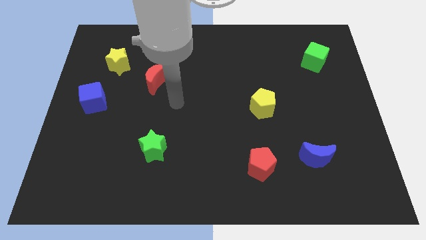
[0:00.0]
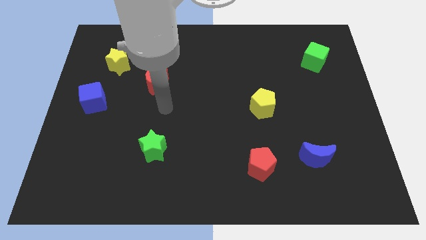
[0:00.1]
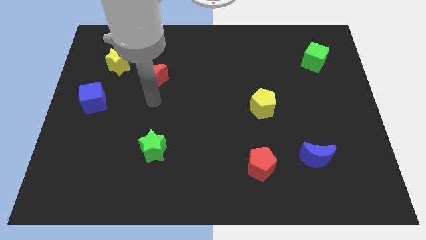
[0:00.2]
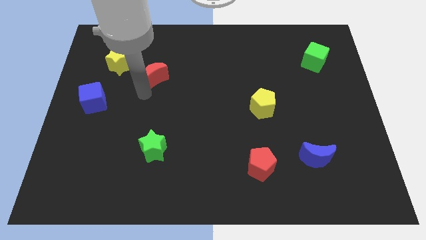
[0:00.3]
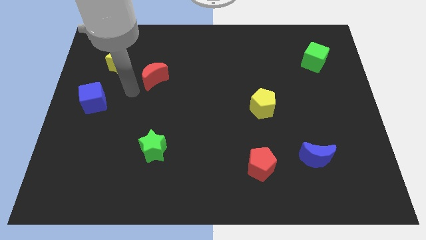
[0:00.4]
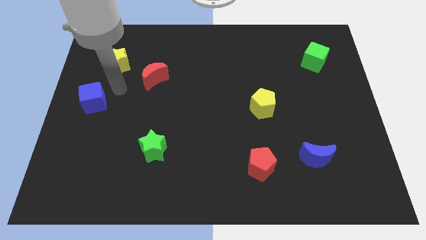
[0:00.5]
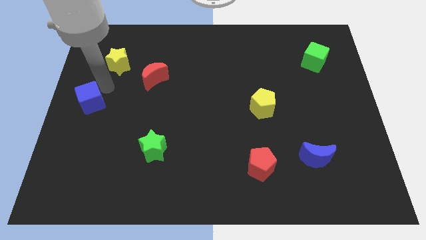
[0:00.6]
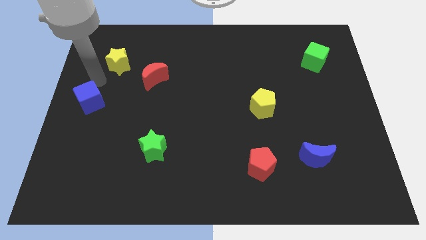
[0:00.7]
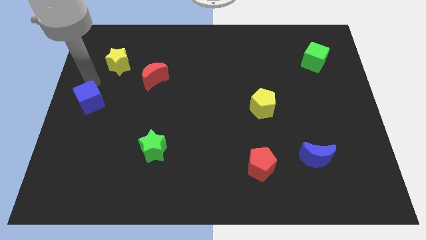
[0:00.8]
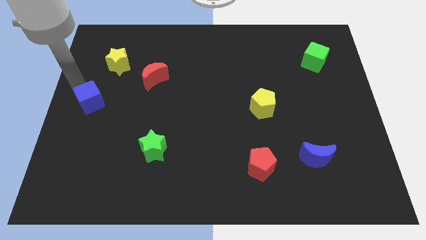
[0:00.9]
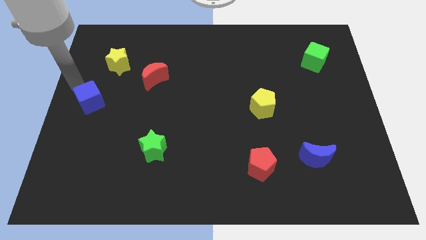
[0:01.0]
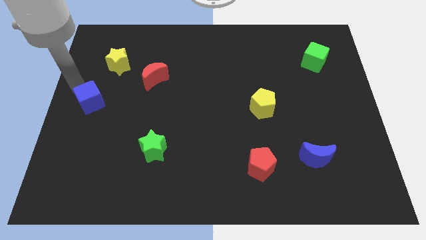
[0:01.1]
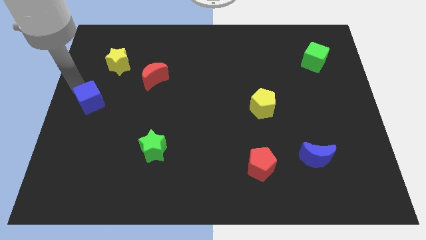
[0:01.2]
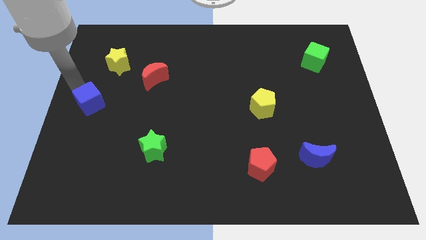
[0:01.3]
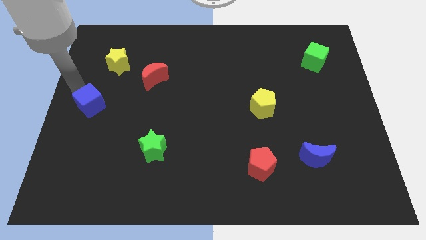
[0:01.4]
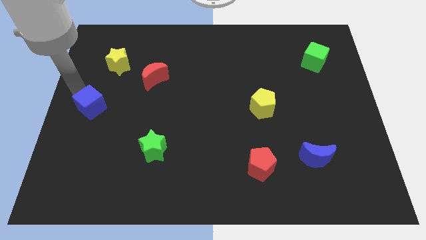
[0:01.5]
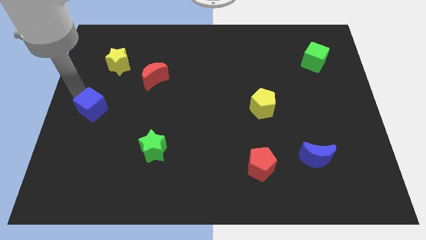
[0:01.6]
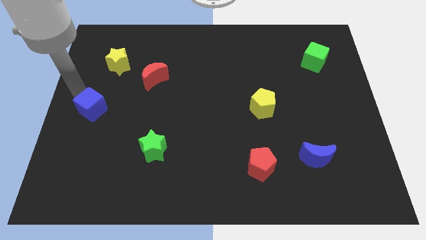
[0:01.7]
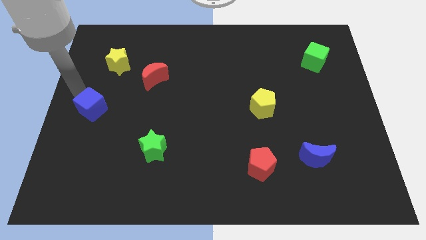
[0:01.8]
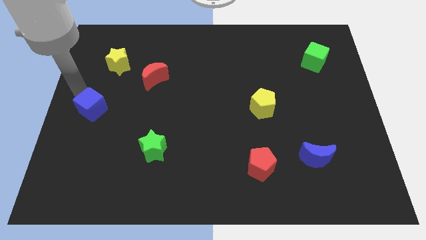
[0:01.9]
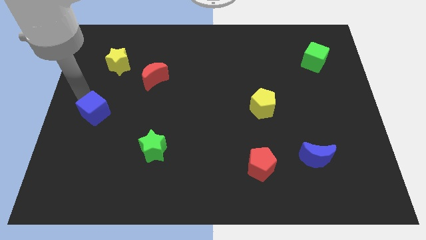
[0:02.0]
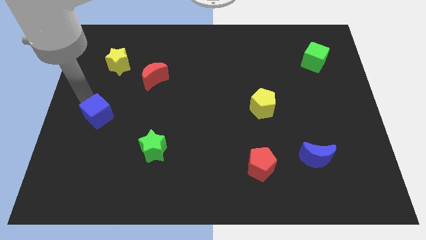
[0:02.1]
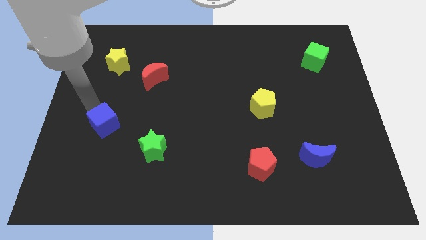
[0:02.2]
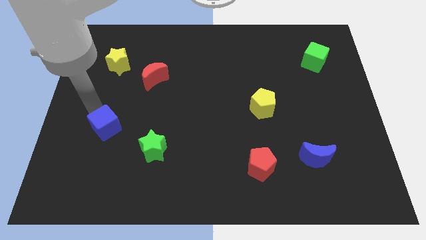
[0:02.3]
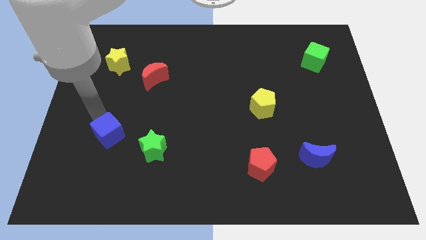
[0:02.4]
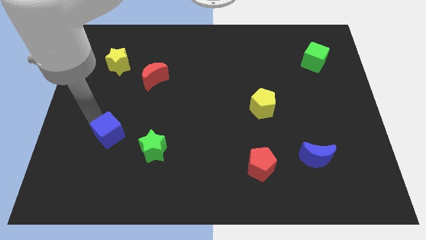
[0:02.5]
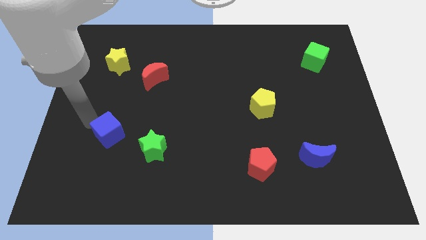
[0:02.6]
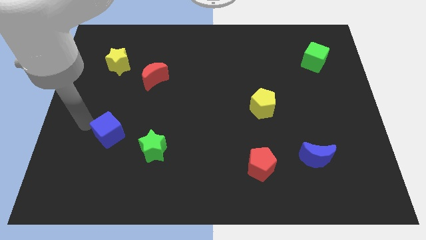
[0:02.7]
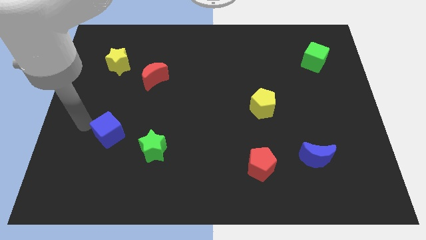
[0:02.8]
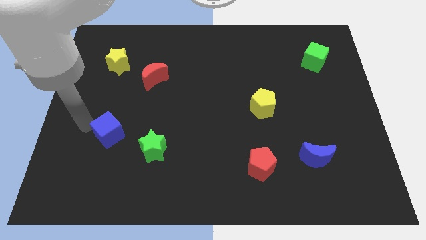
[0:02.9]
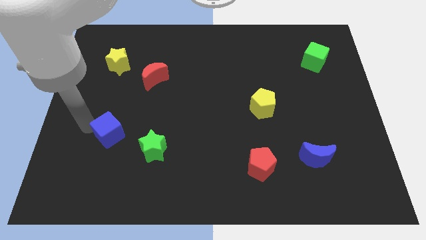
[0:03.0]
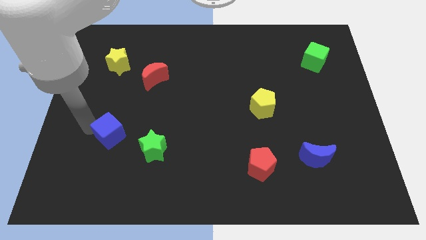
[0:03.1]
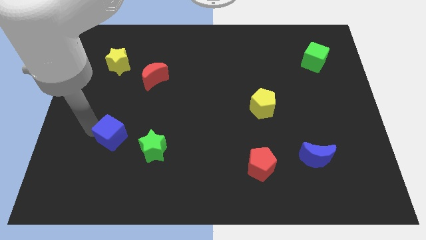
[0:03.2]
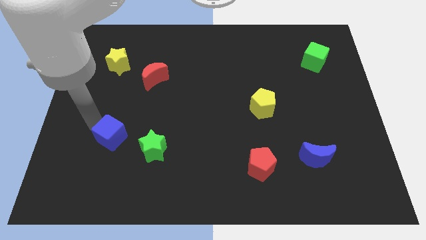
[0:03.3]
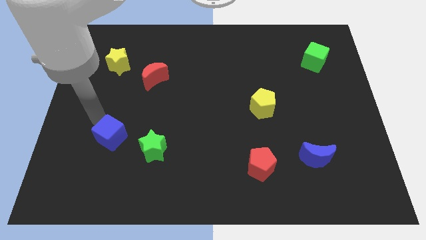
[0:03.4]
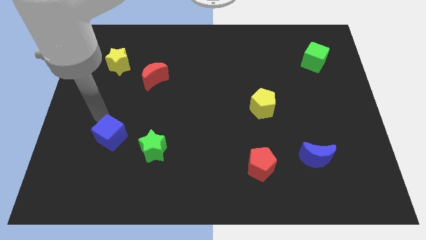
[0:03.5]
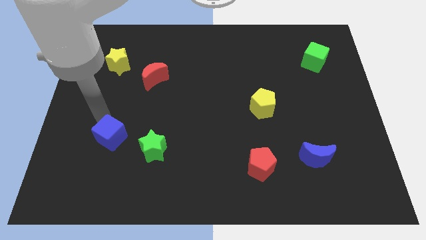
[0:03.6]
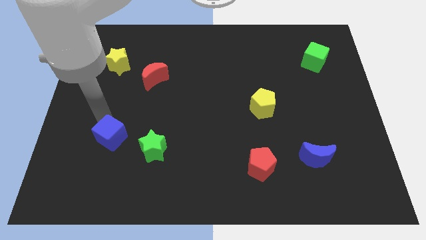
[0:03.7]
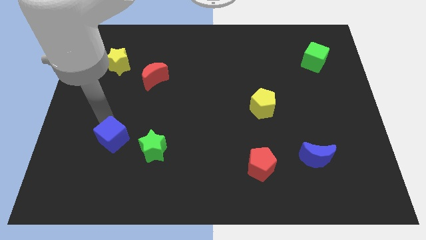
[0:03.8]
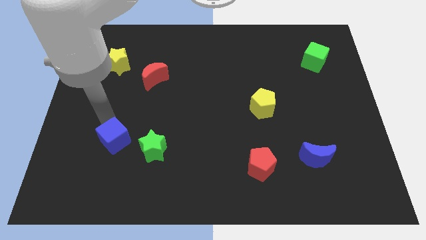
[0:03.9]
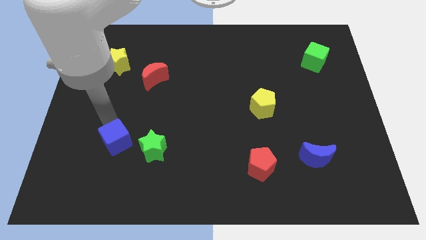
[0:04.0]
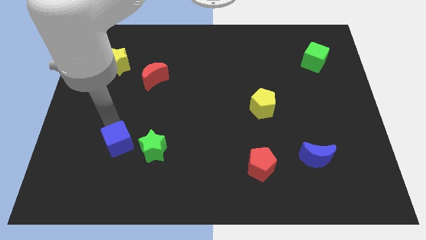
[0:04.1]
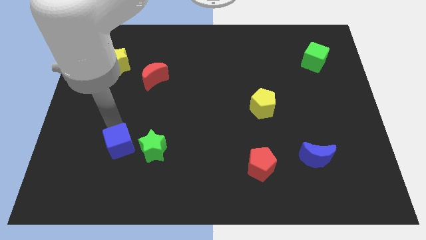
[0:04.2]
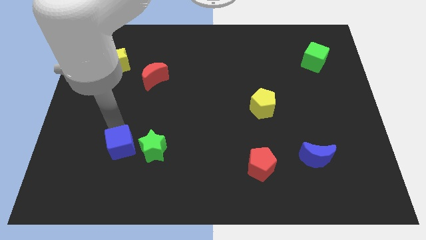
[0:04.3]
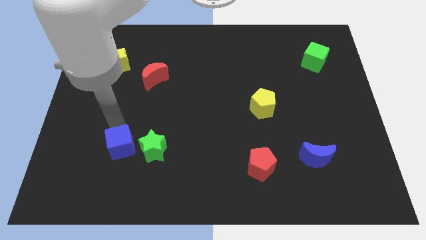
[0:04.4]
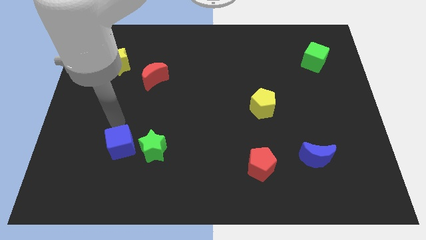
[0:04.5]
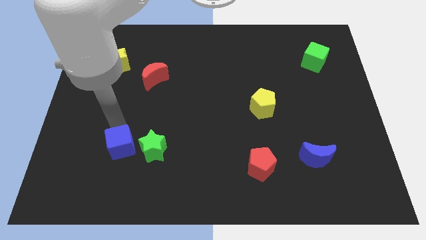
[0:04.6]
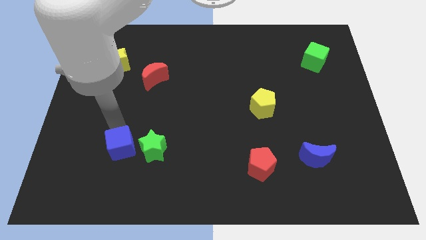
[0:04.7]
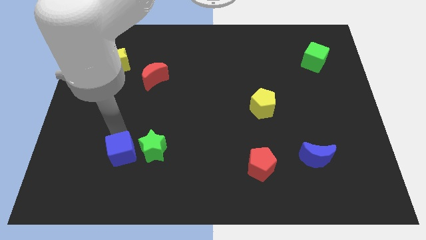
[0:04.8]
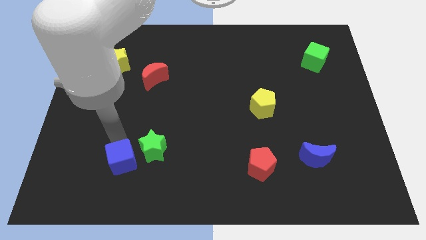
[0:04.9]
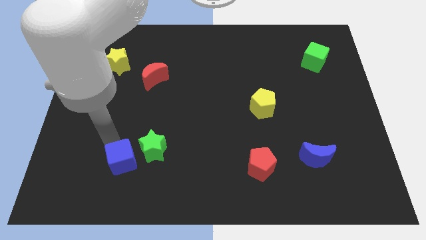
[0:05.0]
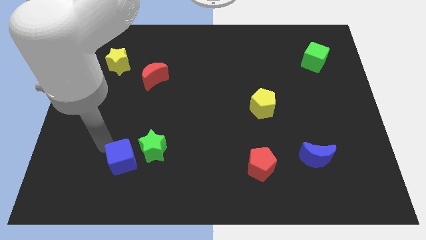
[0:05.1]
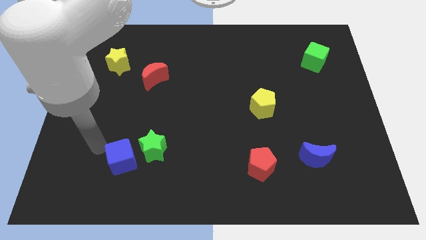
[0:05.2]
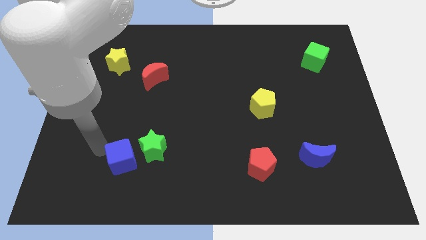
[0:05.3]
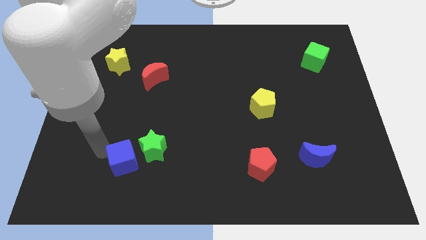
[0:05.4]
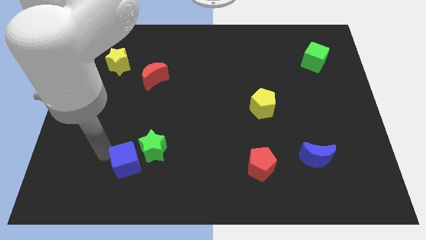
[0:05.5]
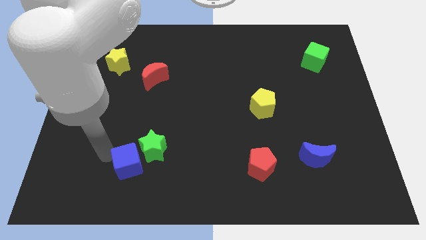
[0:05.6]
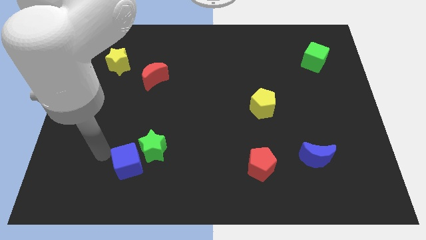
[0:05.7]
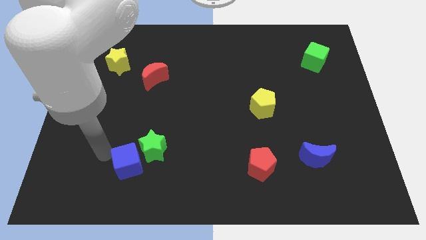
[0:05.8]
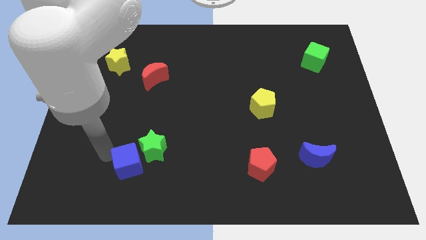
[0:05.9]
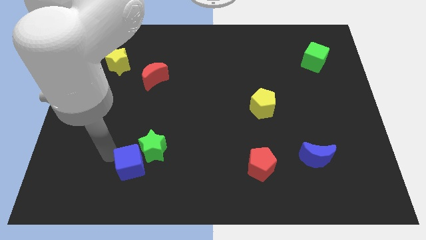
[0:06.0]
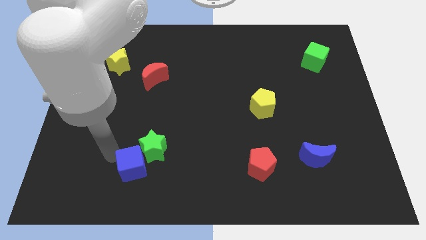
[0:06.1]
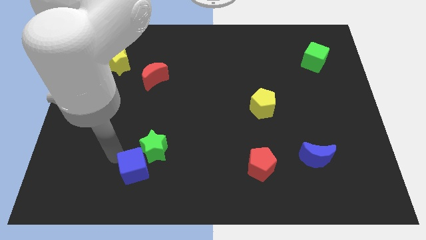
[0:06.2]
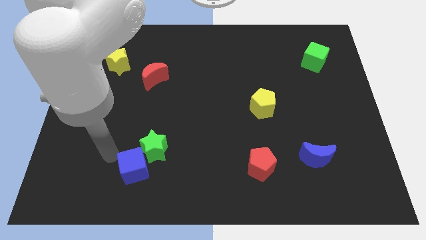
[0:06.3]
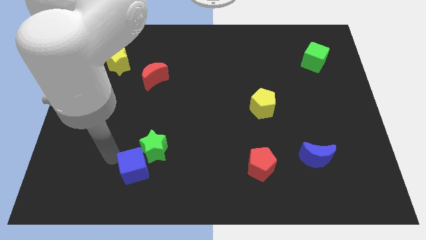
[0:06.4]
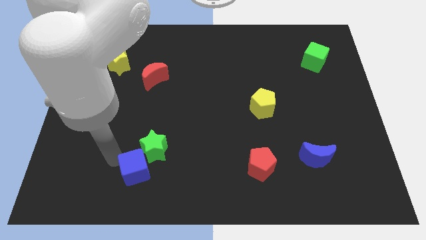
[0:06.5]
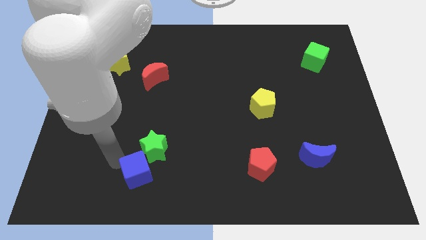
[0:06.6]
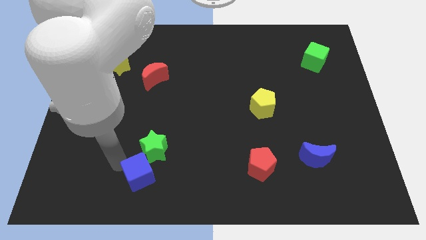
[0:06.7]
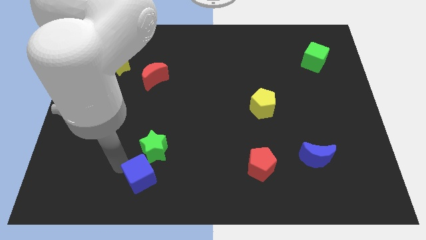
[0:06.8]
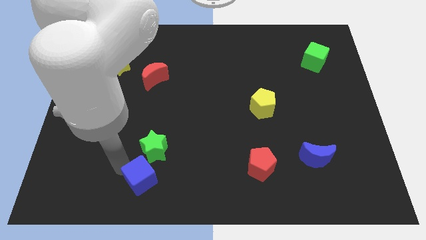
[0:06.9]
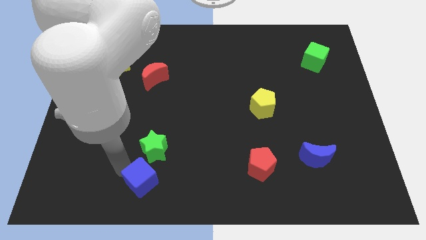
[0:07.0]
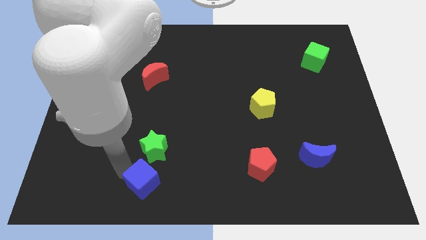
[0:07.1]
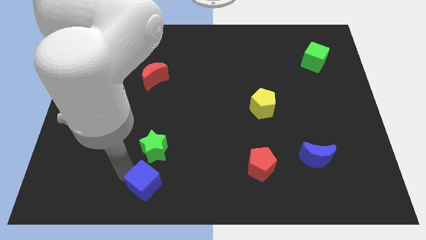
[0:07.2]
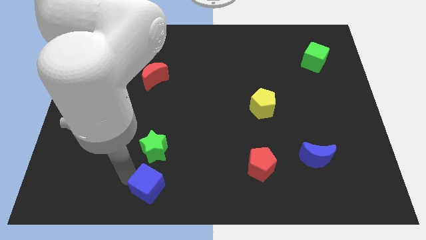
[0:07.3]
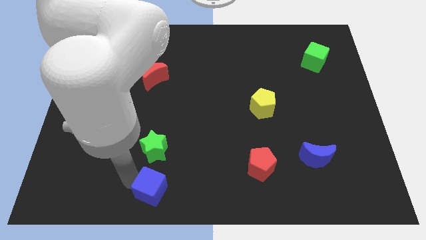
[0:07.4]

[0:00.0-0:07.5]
slide the blue cube to the bottom side
